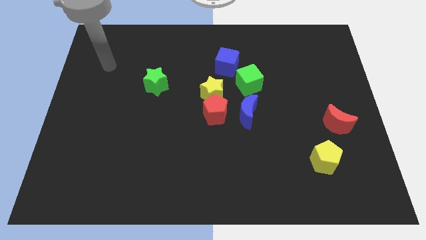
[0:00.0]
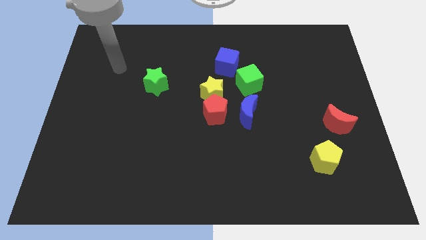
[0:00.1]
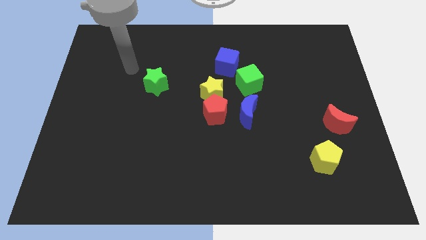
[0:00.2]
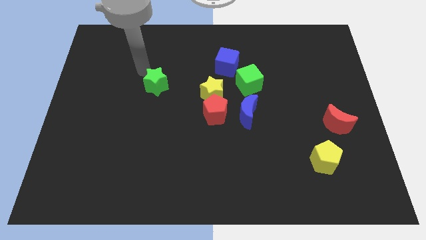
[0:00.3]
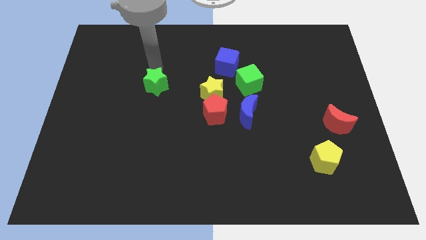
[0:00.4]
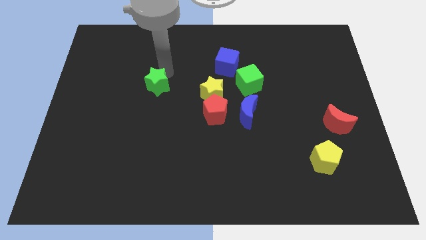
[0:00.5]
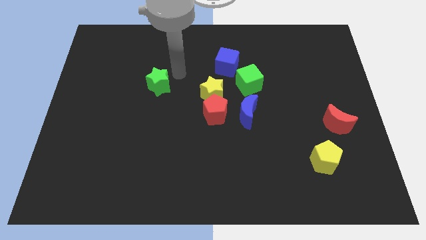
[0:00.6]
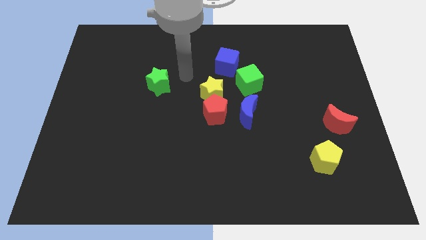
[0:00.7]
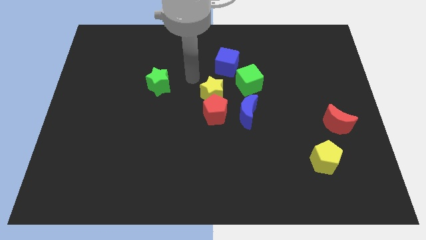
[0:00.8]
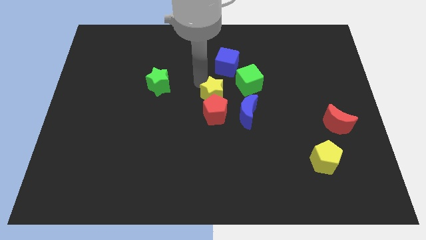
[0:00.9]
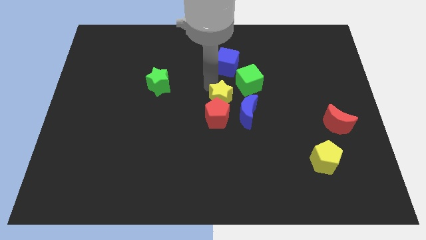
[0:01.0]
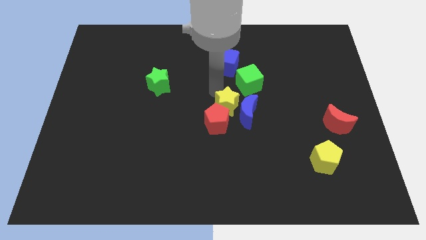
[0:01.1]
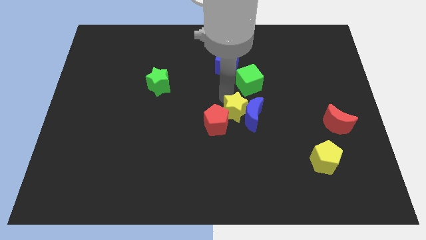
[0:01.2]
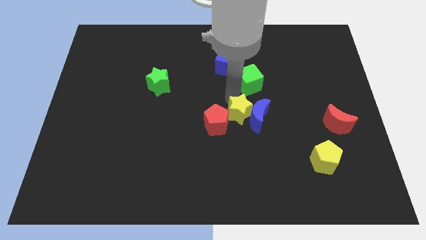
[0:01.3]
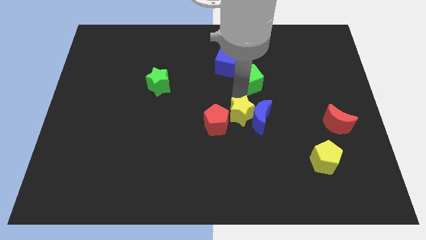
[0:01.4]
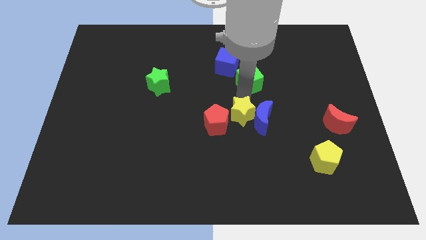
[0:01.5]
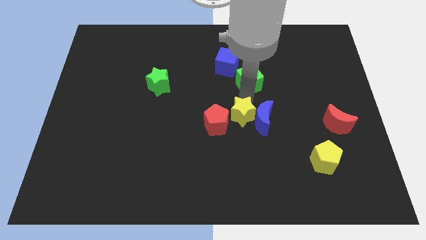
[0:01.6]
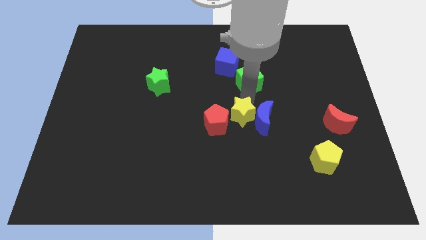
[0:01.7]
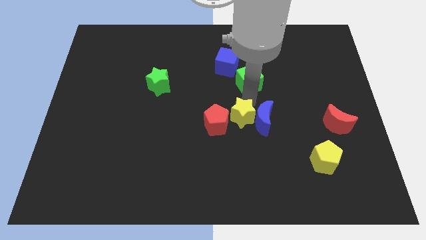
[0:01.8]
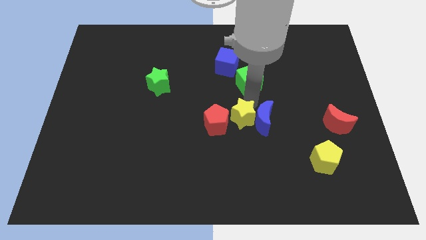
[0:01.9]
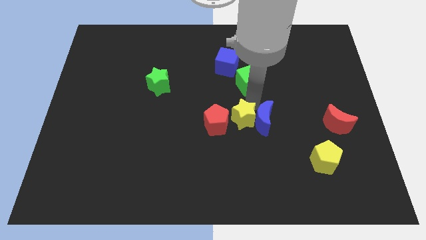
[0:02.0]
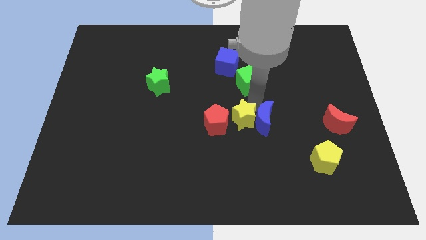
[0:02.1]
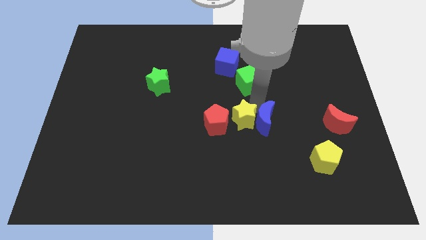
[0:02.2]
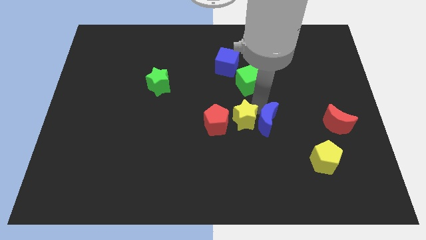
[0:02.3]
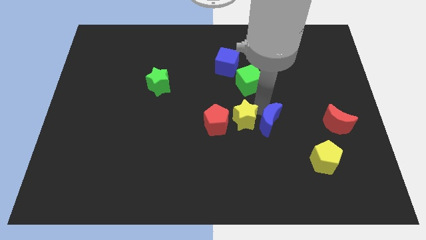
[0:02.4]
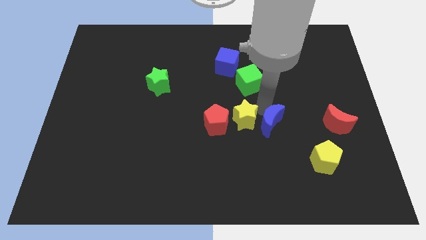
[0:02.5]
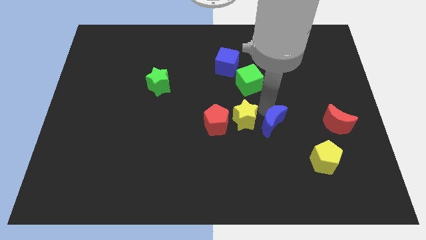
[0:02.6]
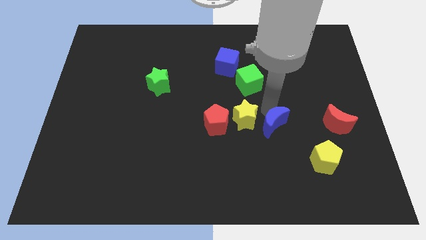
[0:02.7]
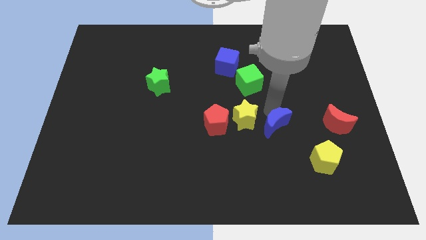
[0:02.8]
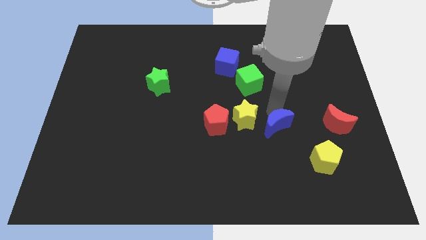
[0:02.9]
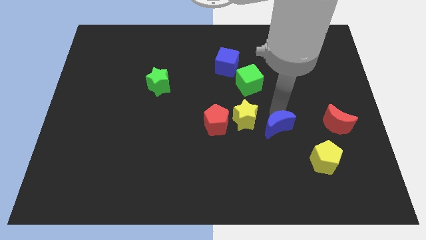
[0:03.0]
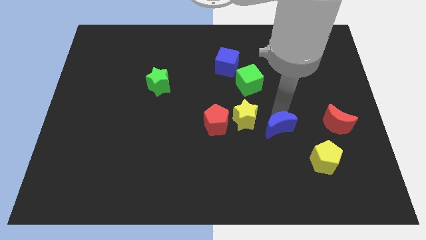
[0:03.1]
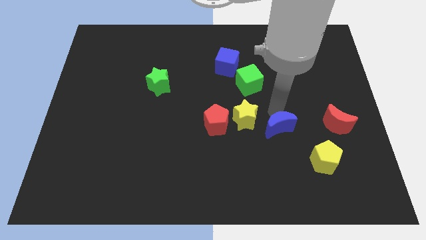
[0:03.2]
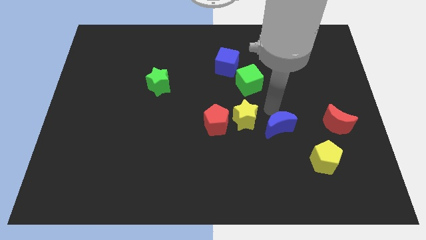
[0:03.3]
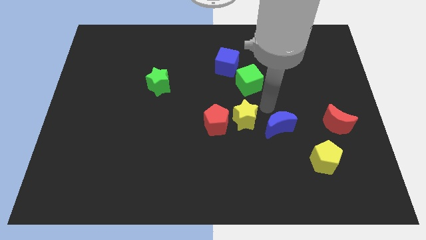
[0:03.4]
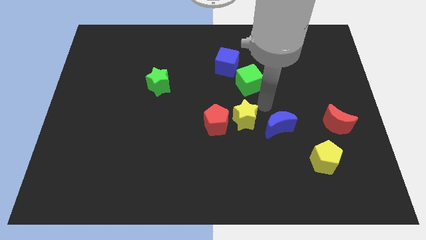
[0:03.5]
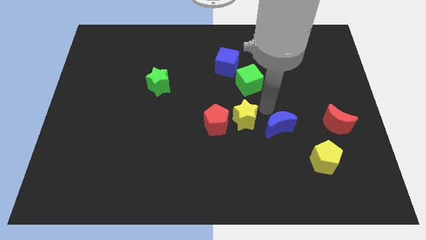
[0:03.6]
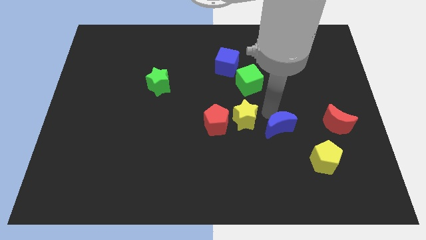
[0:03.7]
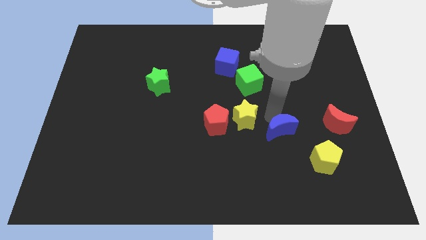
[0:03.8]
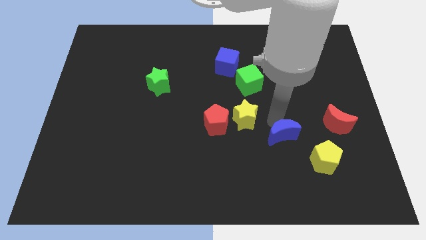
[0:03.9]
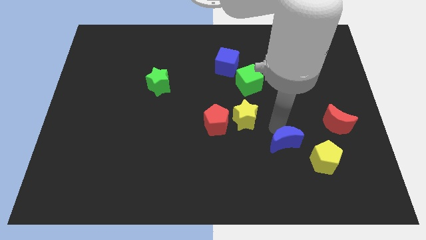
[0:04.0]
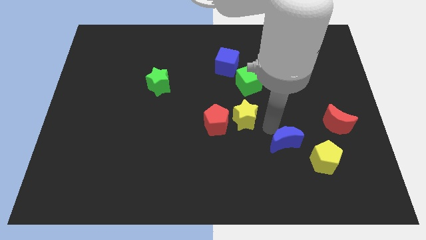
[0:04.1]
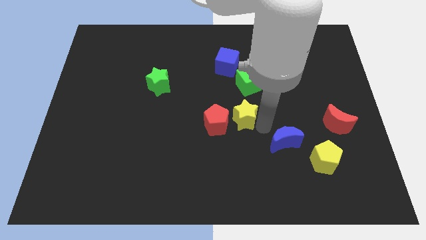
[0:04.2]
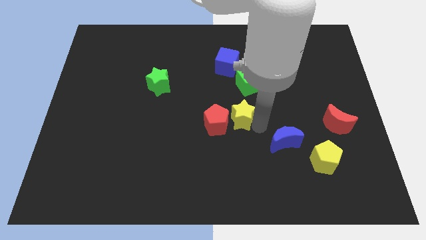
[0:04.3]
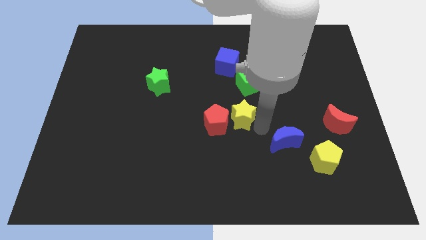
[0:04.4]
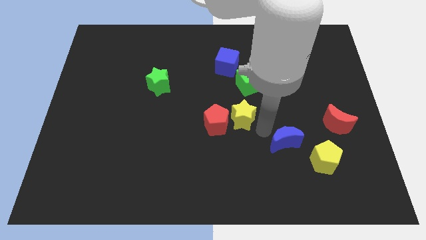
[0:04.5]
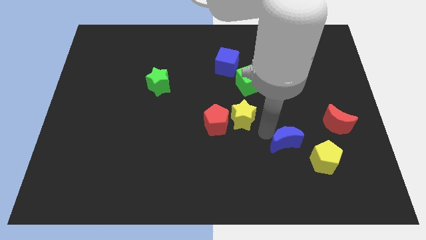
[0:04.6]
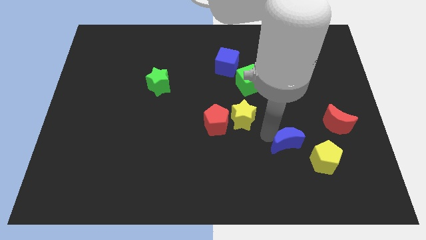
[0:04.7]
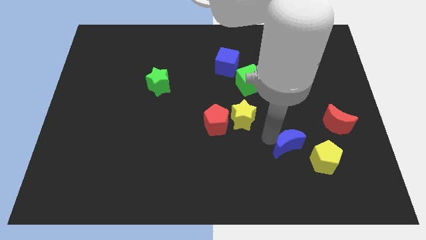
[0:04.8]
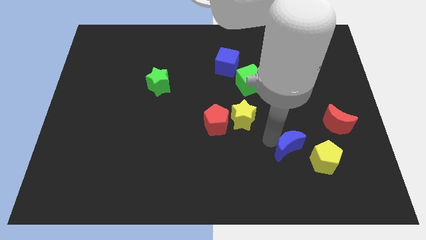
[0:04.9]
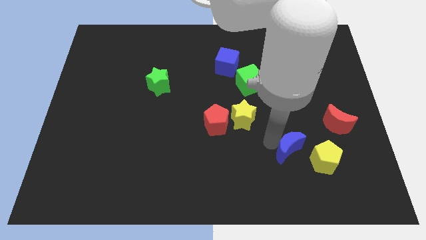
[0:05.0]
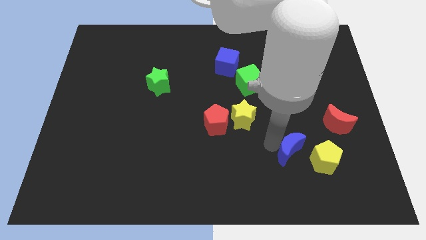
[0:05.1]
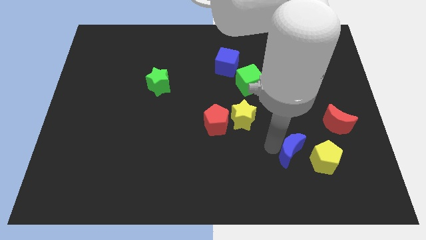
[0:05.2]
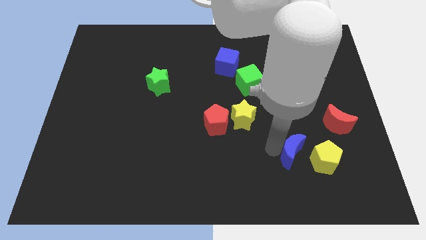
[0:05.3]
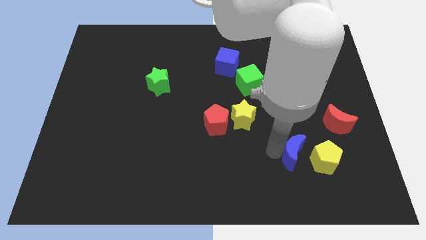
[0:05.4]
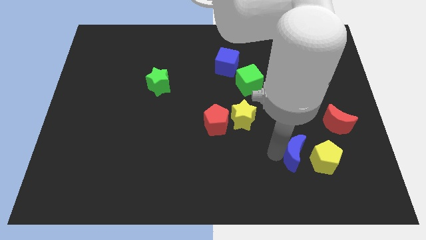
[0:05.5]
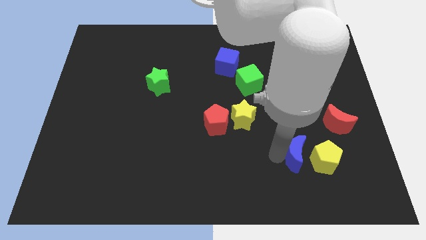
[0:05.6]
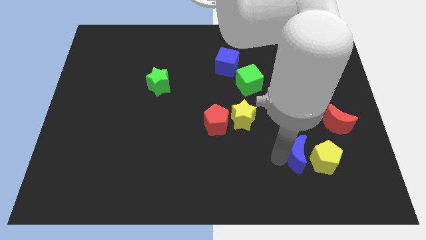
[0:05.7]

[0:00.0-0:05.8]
move the blue moon close to the yellow pentagon

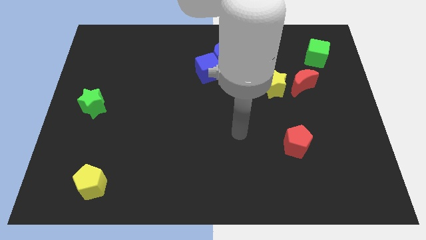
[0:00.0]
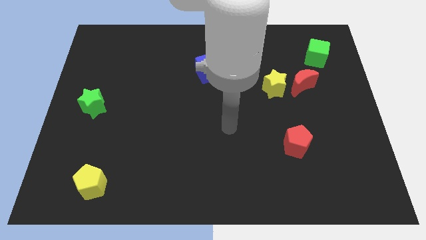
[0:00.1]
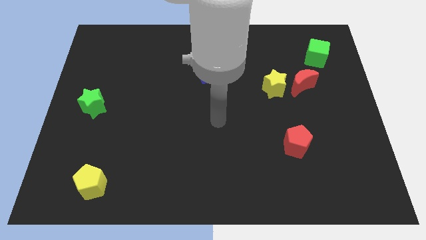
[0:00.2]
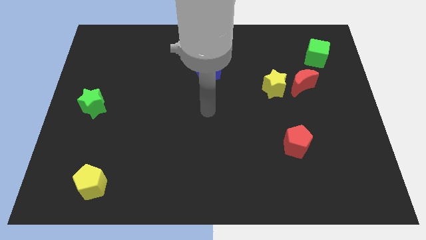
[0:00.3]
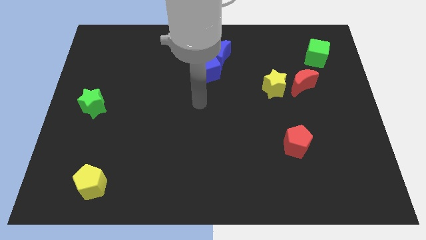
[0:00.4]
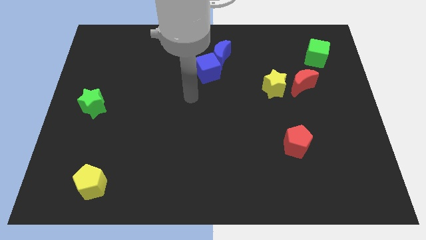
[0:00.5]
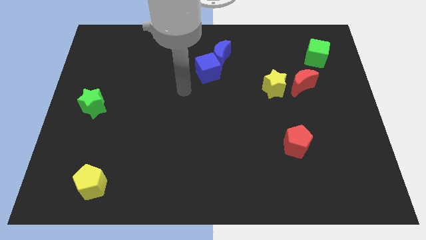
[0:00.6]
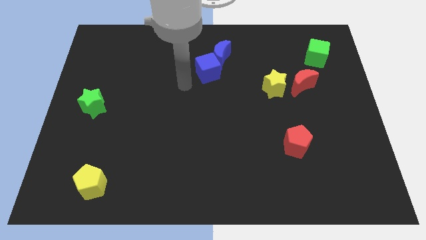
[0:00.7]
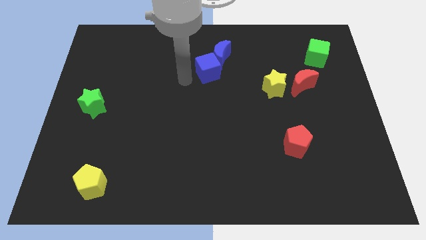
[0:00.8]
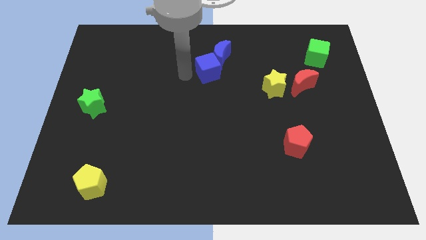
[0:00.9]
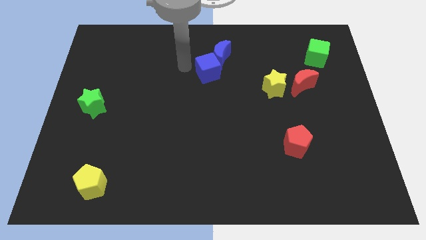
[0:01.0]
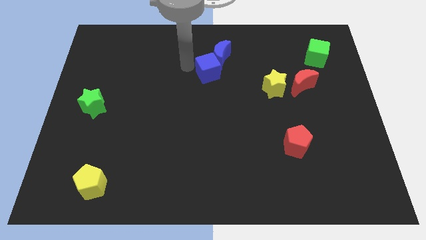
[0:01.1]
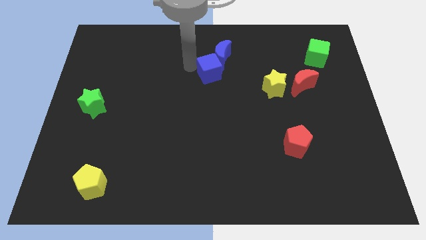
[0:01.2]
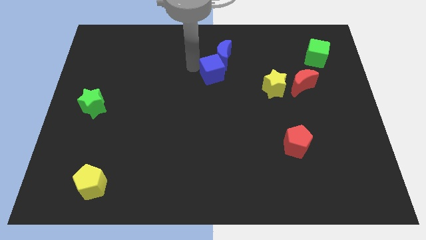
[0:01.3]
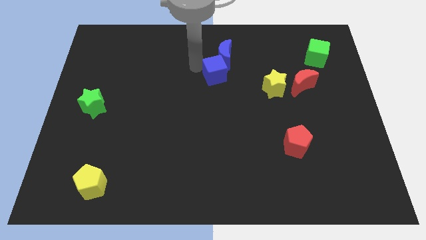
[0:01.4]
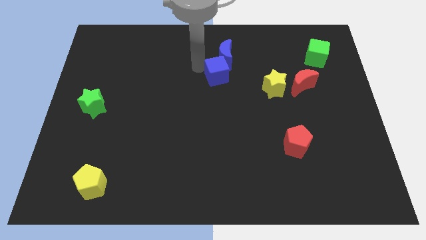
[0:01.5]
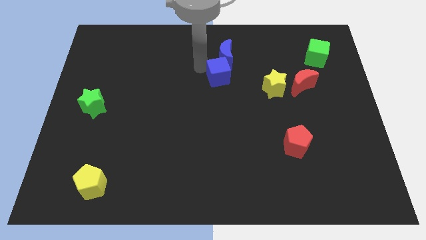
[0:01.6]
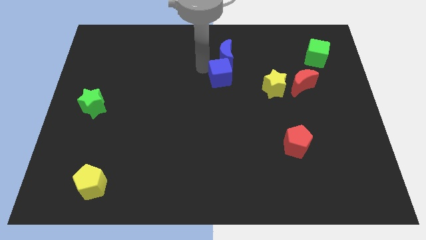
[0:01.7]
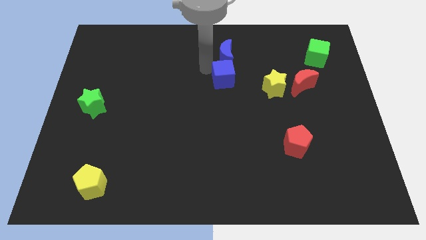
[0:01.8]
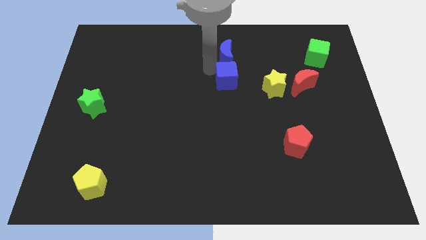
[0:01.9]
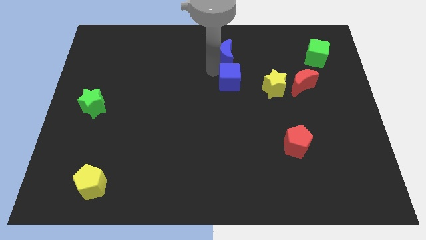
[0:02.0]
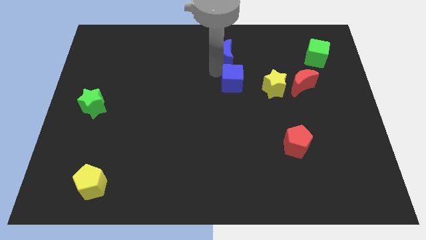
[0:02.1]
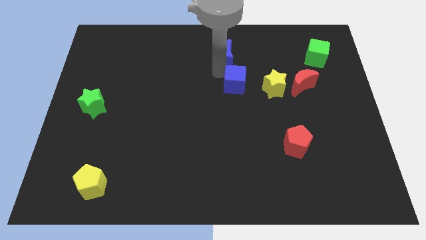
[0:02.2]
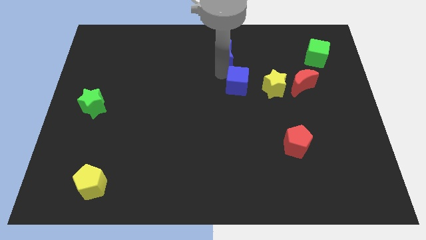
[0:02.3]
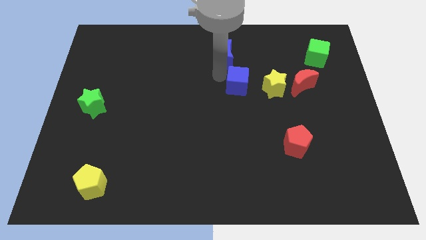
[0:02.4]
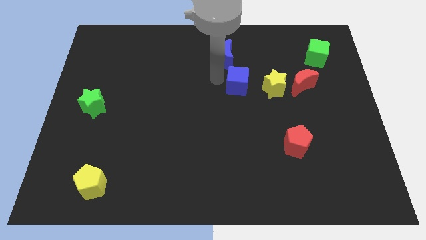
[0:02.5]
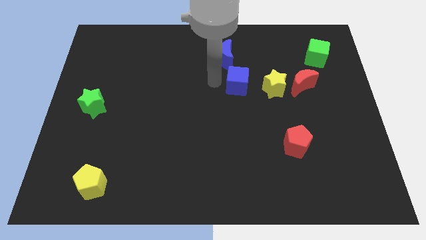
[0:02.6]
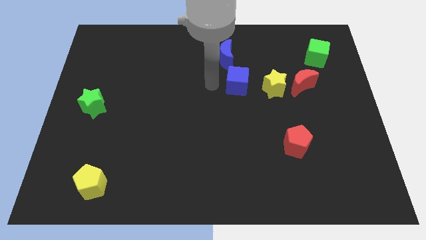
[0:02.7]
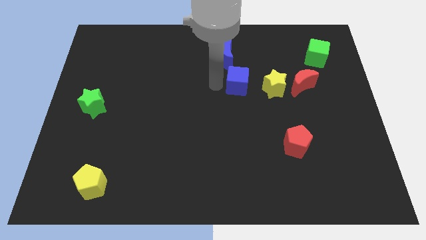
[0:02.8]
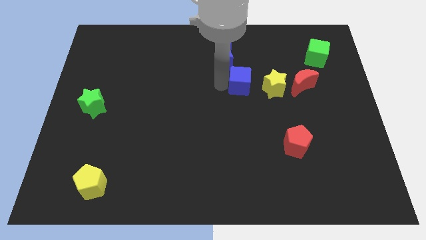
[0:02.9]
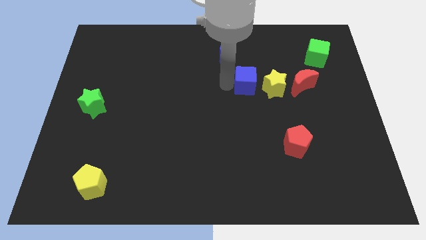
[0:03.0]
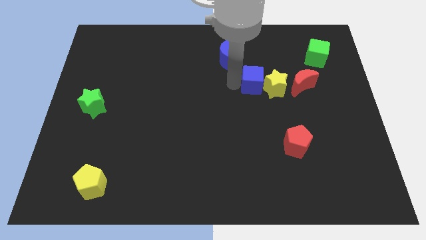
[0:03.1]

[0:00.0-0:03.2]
put the blue cube close to the yellow star
